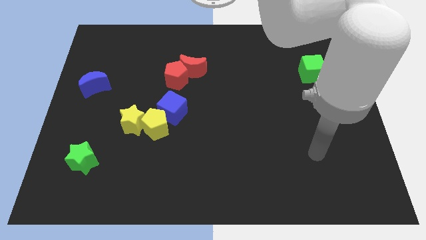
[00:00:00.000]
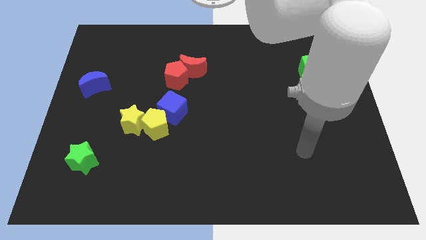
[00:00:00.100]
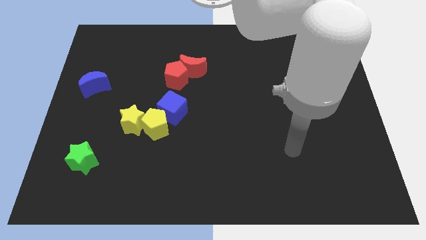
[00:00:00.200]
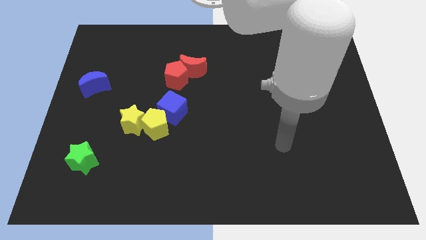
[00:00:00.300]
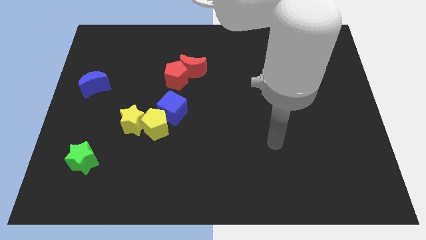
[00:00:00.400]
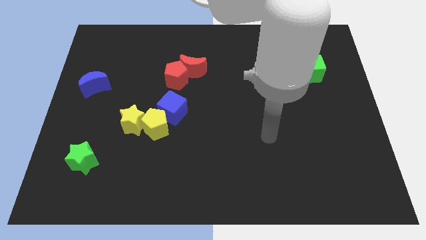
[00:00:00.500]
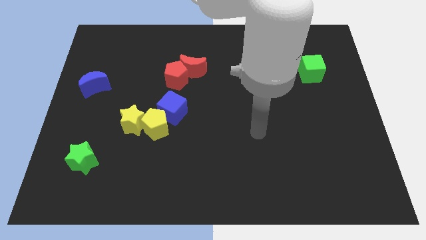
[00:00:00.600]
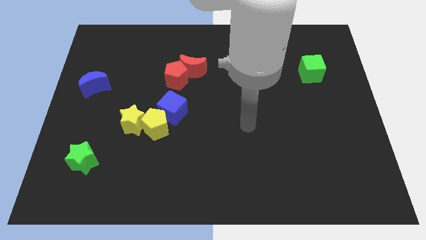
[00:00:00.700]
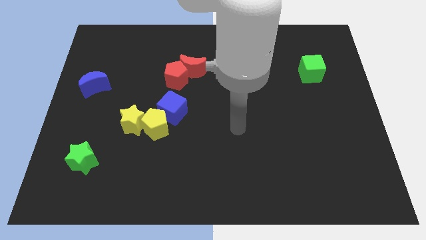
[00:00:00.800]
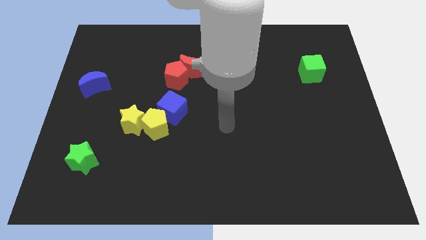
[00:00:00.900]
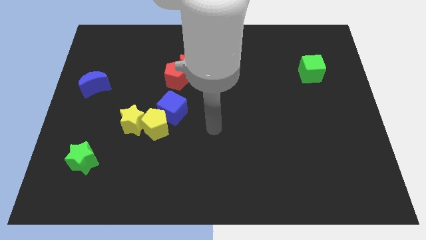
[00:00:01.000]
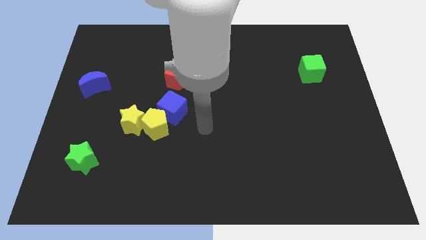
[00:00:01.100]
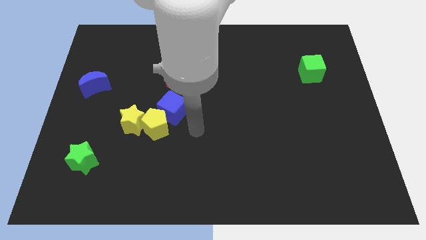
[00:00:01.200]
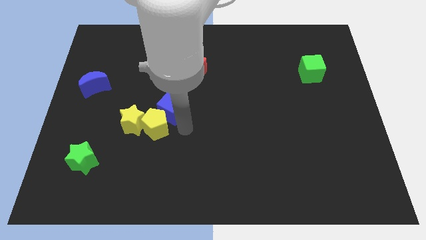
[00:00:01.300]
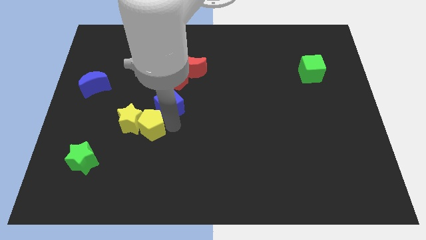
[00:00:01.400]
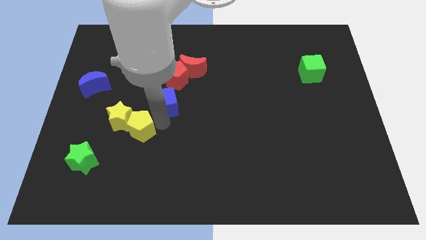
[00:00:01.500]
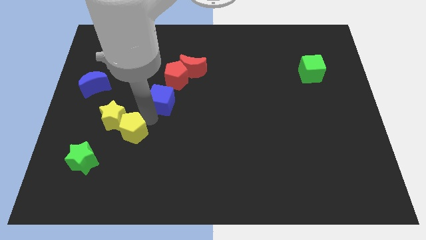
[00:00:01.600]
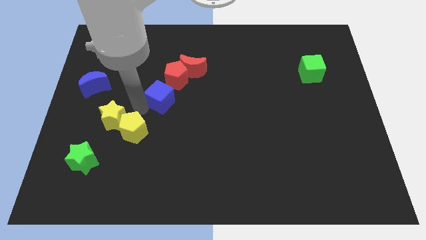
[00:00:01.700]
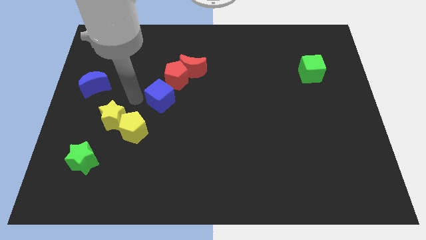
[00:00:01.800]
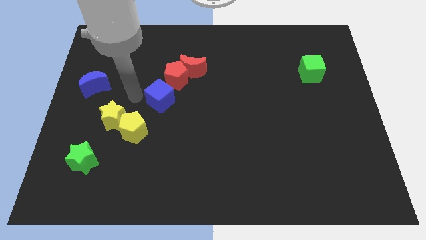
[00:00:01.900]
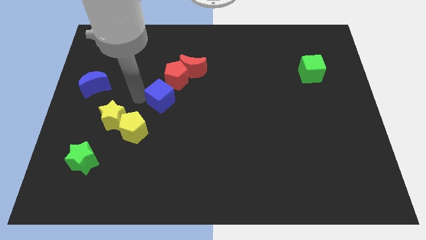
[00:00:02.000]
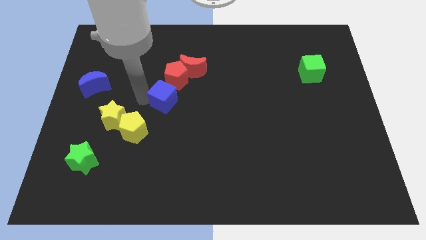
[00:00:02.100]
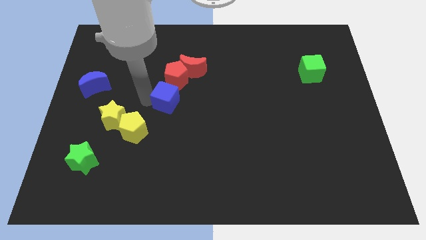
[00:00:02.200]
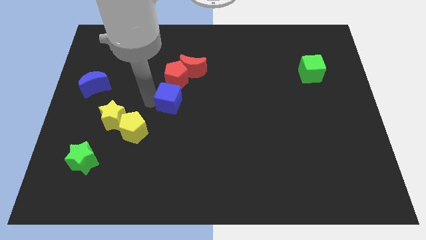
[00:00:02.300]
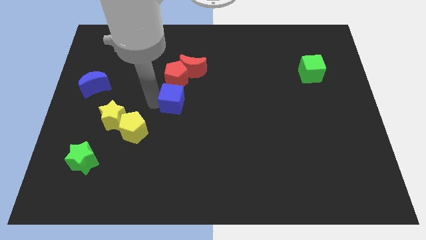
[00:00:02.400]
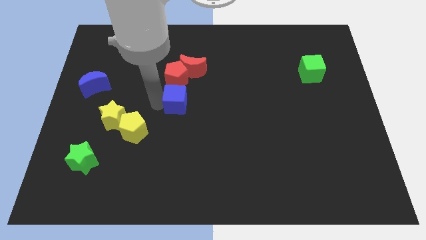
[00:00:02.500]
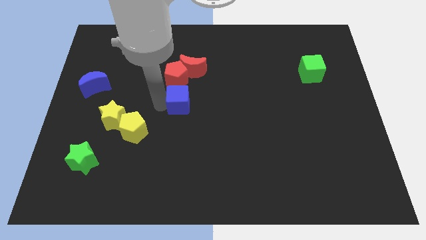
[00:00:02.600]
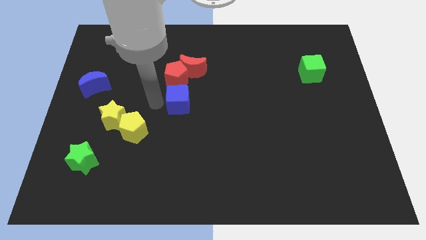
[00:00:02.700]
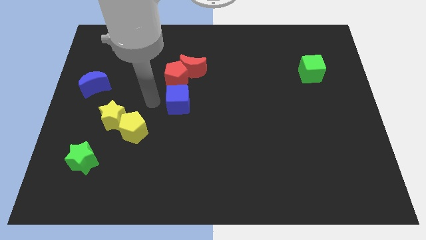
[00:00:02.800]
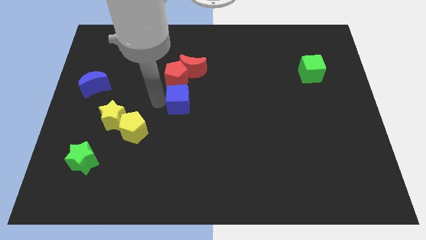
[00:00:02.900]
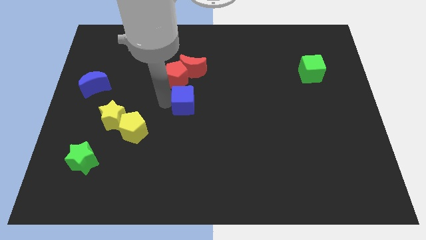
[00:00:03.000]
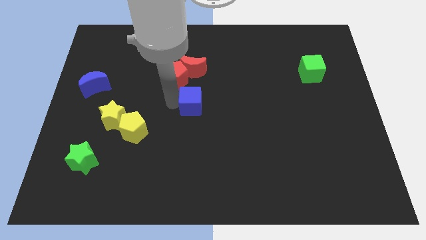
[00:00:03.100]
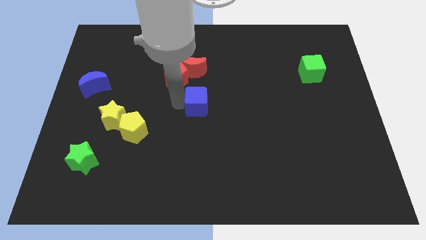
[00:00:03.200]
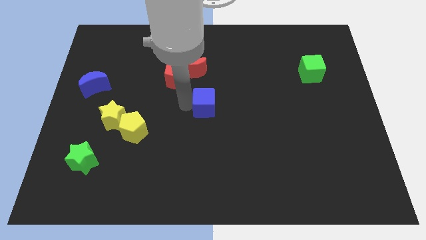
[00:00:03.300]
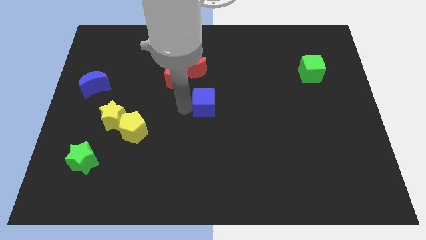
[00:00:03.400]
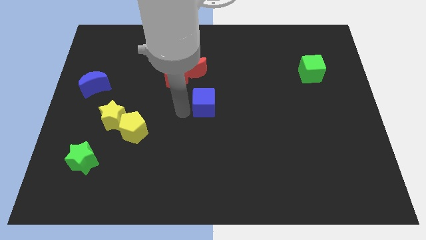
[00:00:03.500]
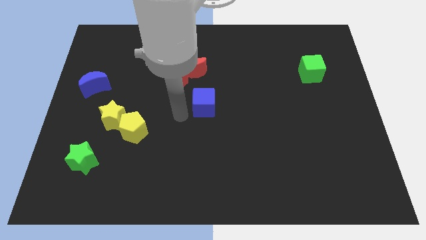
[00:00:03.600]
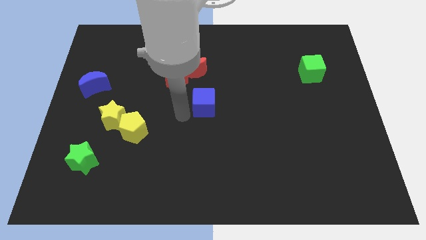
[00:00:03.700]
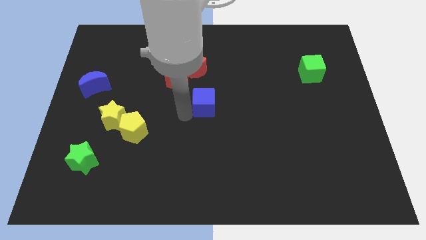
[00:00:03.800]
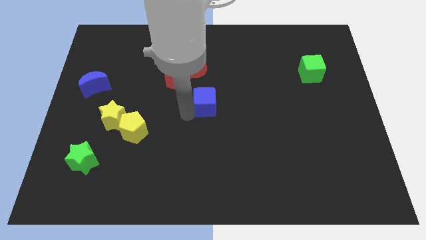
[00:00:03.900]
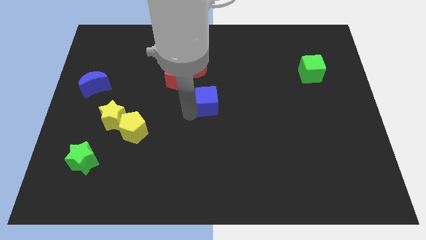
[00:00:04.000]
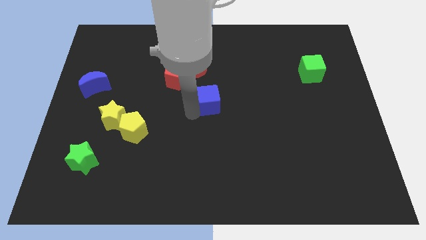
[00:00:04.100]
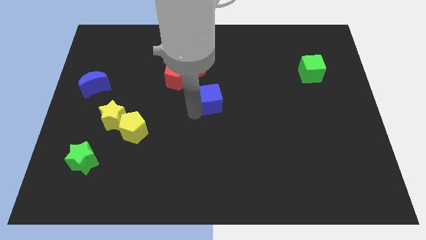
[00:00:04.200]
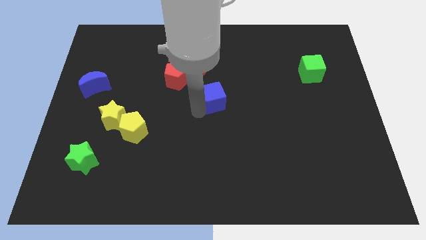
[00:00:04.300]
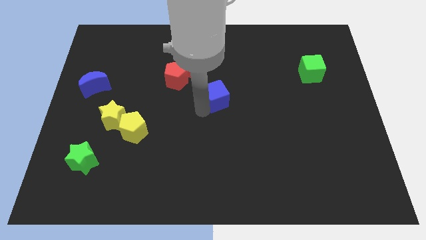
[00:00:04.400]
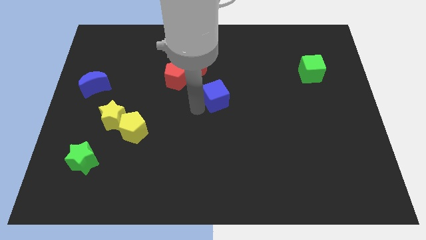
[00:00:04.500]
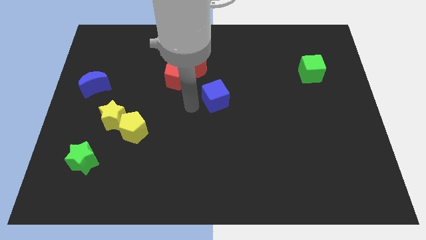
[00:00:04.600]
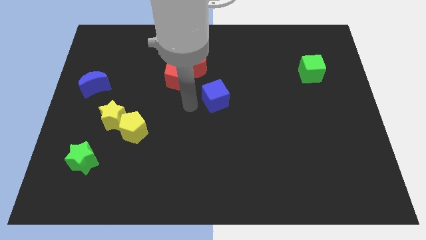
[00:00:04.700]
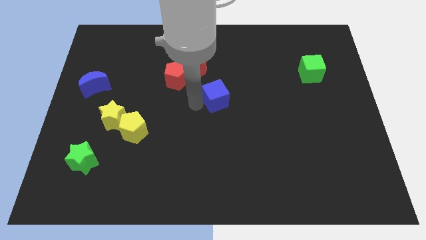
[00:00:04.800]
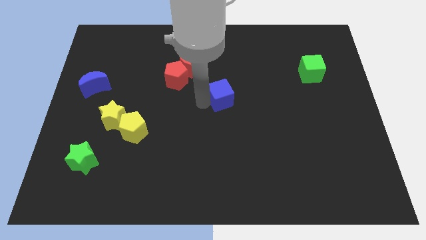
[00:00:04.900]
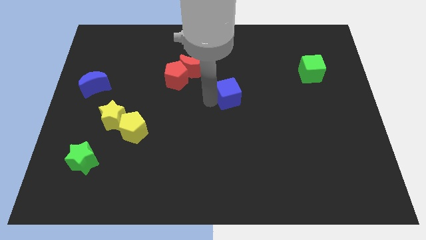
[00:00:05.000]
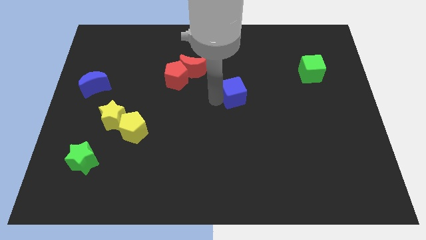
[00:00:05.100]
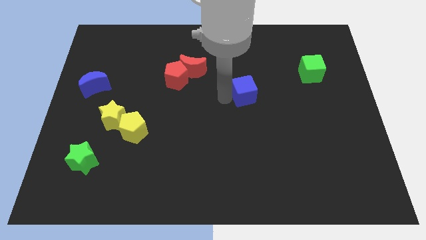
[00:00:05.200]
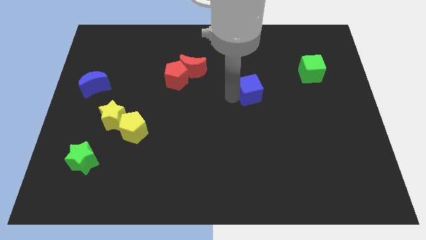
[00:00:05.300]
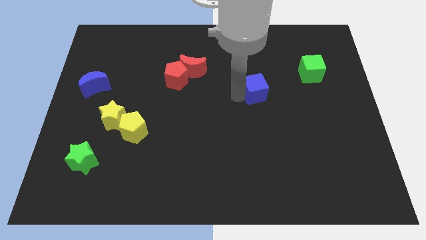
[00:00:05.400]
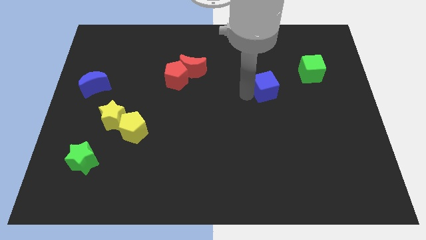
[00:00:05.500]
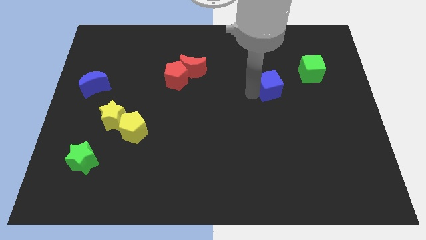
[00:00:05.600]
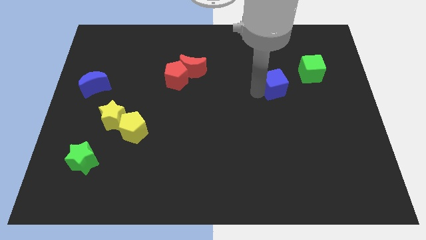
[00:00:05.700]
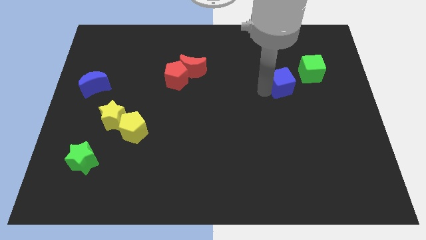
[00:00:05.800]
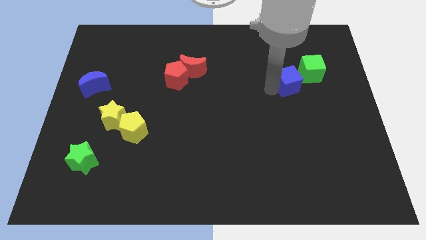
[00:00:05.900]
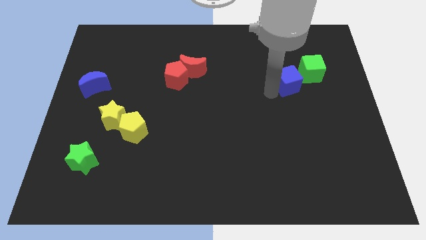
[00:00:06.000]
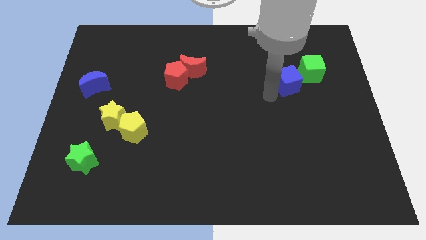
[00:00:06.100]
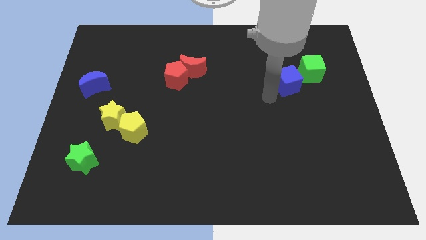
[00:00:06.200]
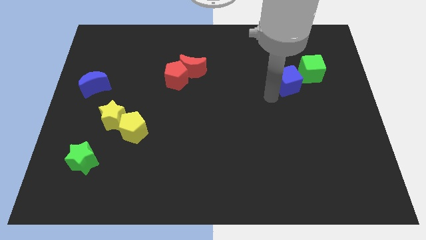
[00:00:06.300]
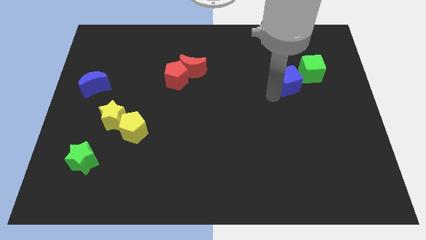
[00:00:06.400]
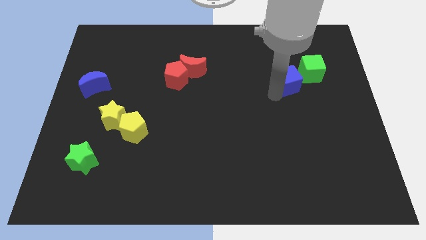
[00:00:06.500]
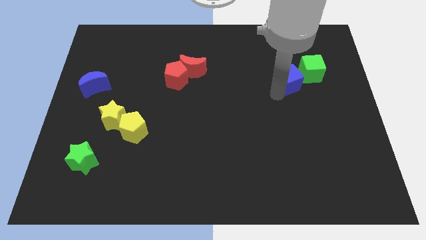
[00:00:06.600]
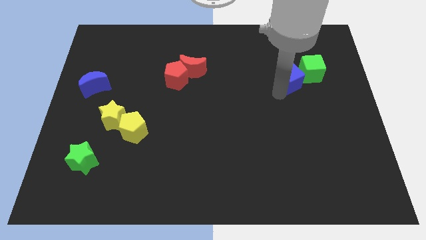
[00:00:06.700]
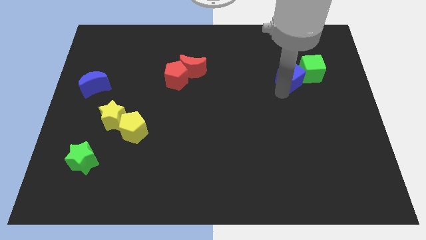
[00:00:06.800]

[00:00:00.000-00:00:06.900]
move the blue cube next to the green cube

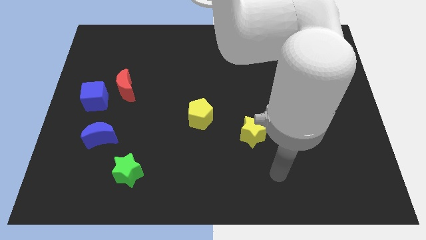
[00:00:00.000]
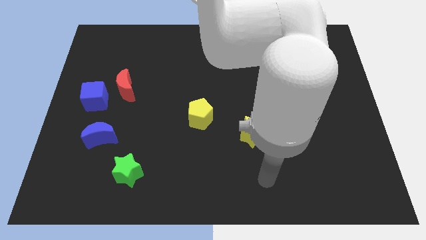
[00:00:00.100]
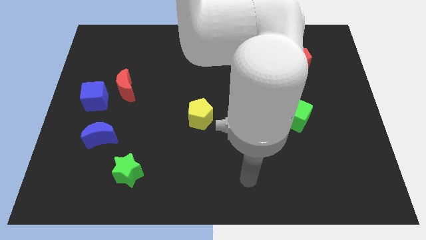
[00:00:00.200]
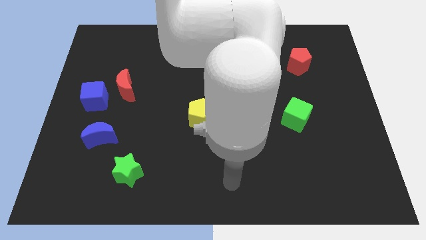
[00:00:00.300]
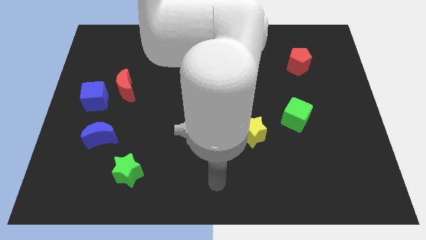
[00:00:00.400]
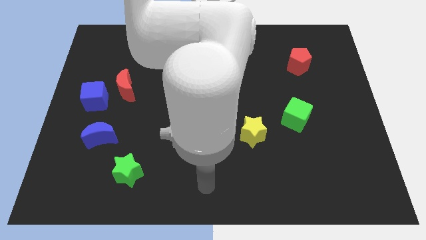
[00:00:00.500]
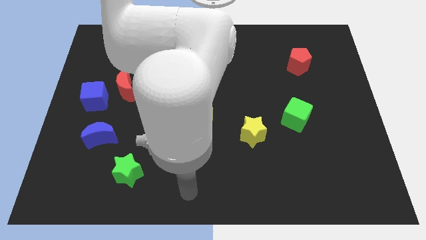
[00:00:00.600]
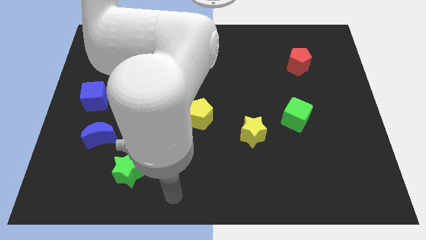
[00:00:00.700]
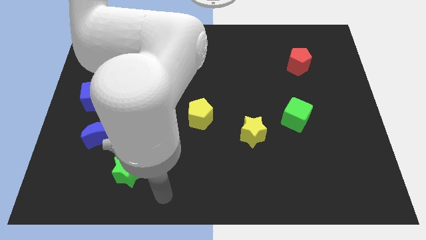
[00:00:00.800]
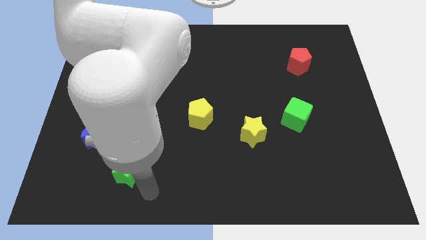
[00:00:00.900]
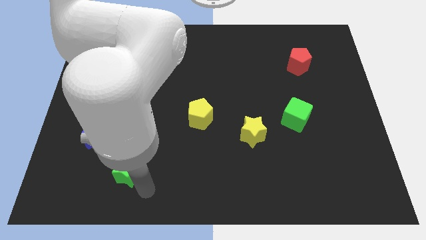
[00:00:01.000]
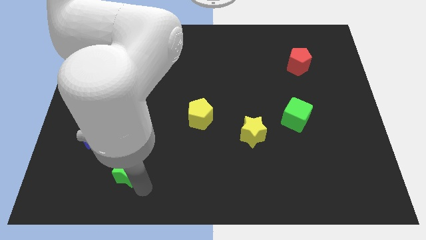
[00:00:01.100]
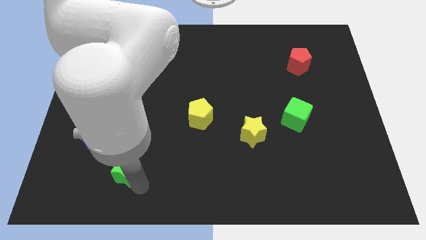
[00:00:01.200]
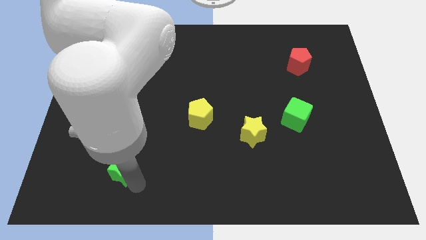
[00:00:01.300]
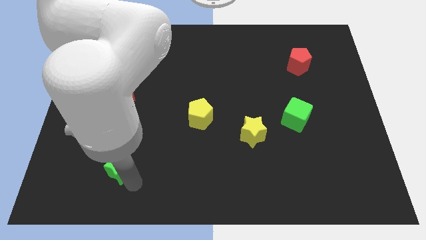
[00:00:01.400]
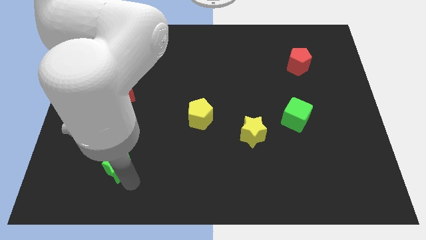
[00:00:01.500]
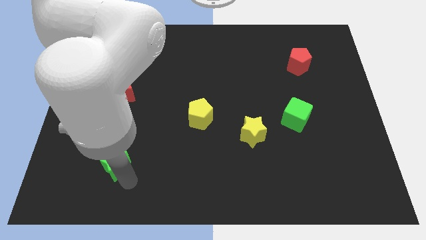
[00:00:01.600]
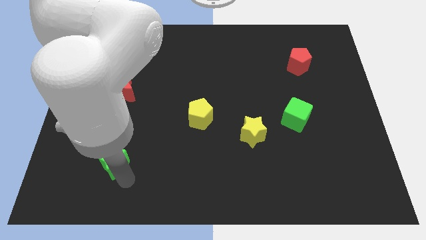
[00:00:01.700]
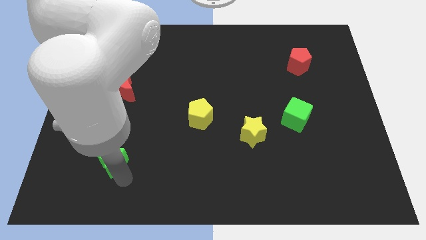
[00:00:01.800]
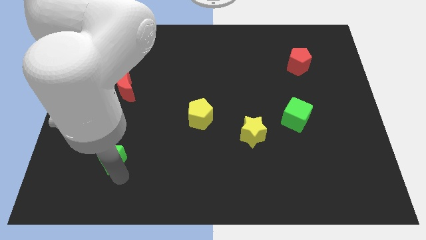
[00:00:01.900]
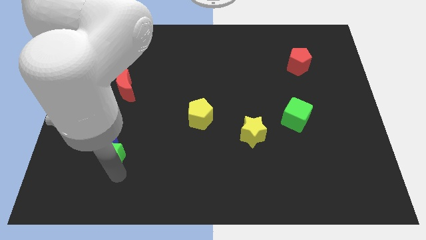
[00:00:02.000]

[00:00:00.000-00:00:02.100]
push the green star next to the blue moon
